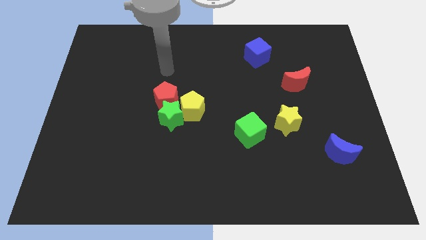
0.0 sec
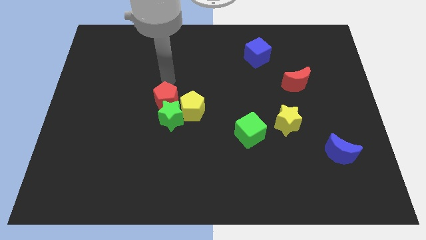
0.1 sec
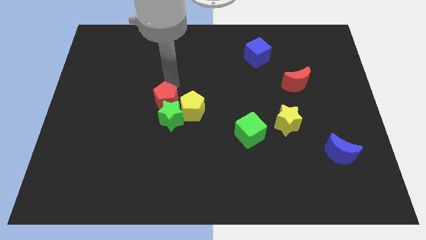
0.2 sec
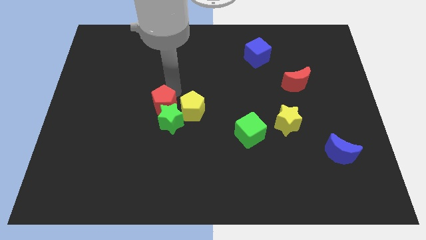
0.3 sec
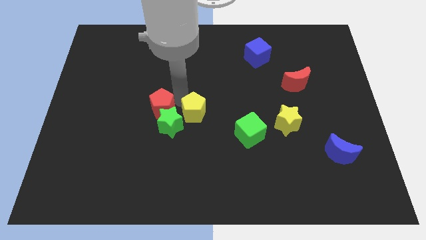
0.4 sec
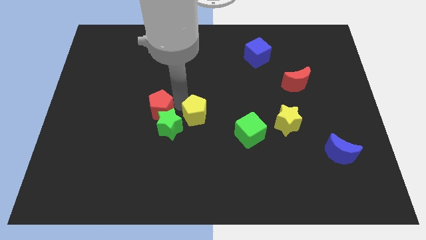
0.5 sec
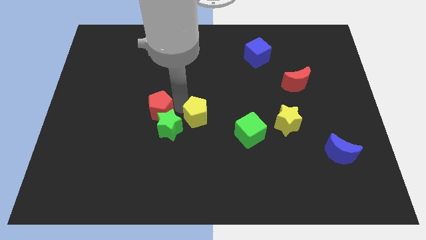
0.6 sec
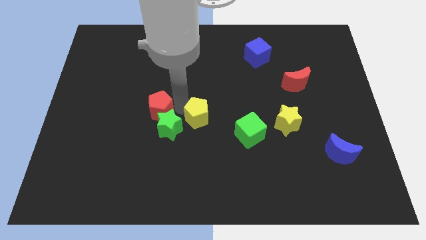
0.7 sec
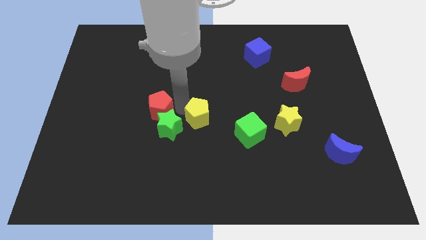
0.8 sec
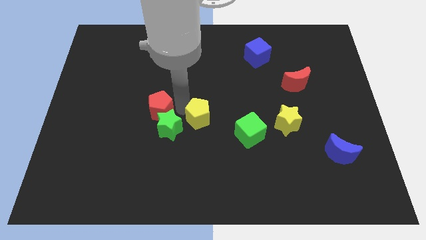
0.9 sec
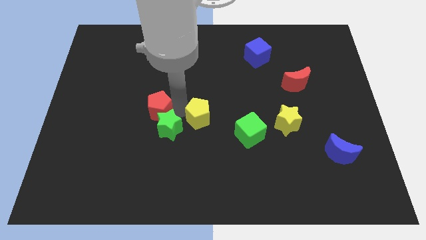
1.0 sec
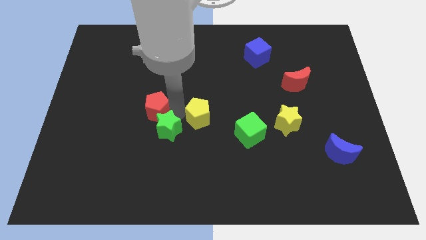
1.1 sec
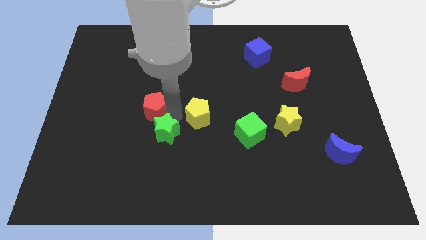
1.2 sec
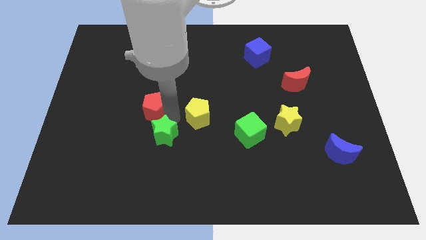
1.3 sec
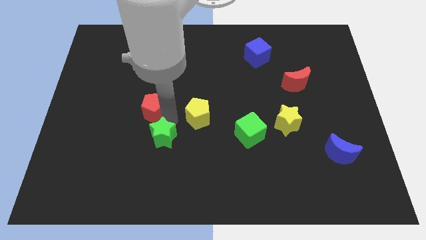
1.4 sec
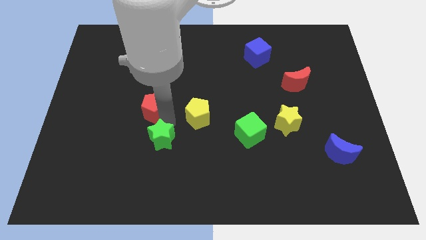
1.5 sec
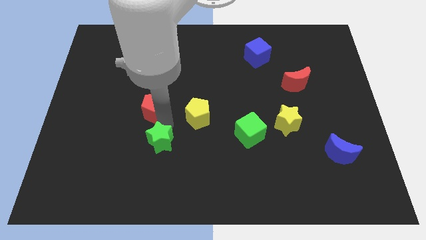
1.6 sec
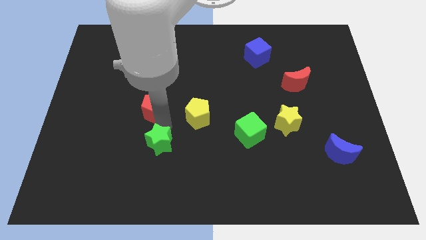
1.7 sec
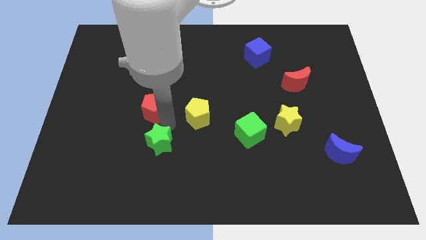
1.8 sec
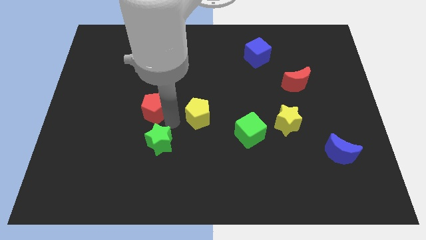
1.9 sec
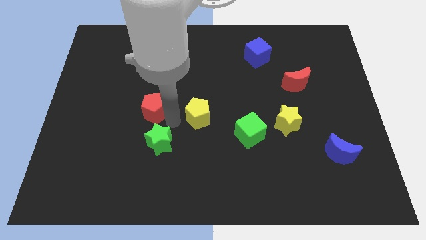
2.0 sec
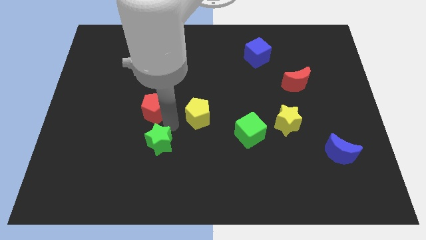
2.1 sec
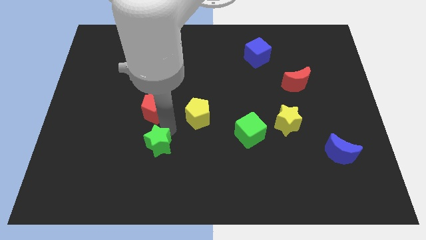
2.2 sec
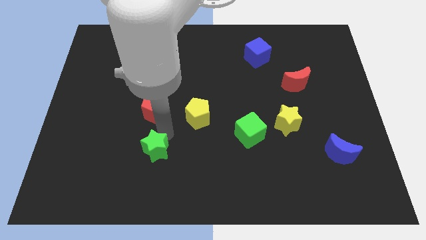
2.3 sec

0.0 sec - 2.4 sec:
separate the green star from the red pentagon and yellow pentagon

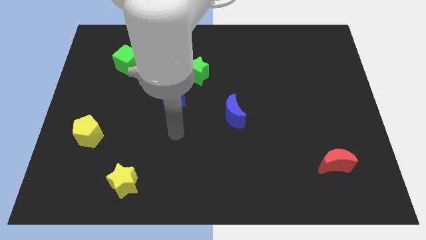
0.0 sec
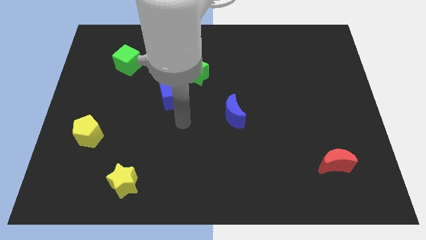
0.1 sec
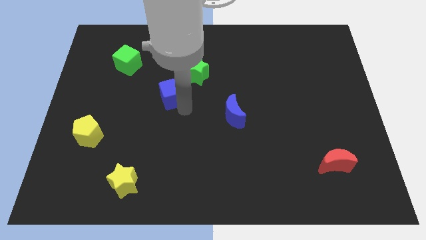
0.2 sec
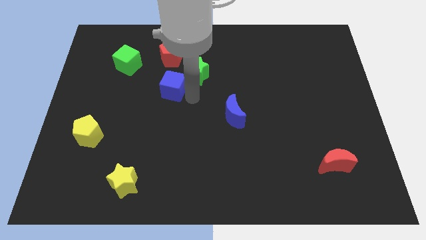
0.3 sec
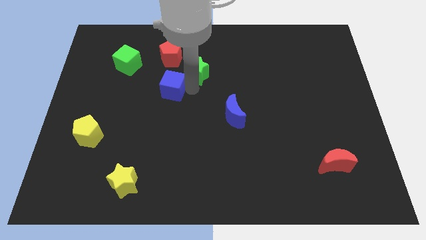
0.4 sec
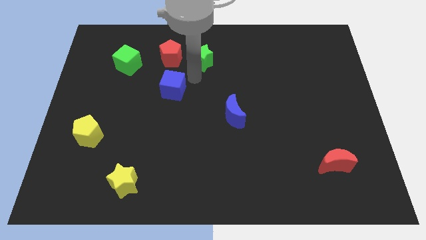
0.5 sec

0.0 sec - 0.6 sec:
pull the blue cube apart from the green star

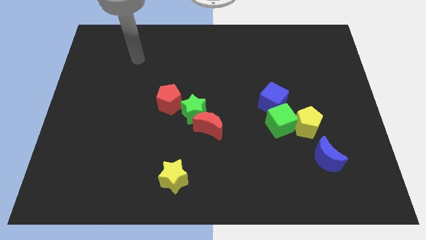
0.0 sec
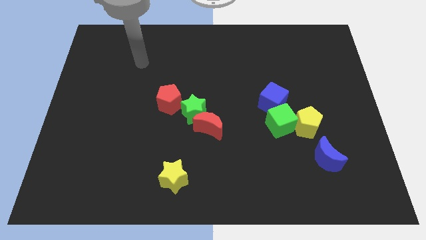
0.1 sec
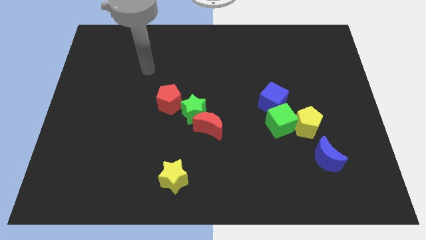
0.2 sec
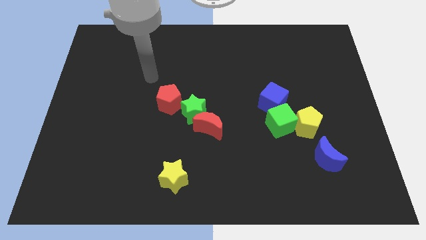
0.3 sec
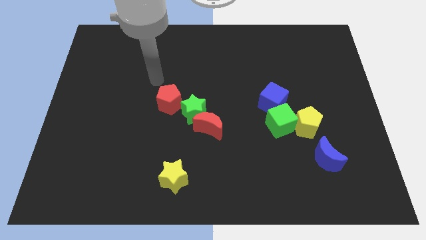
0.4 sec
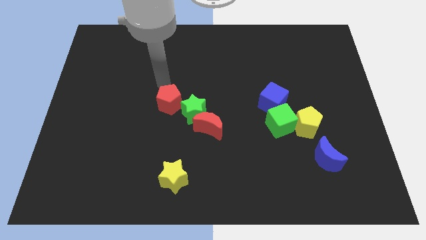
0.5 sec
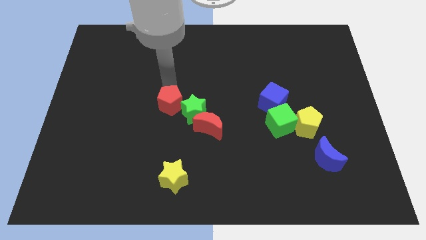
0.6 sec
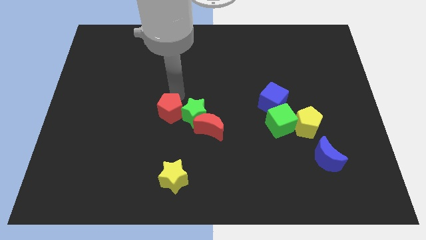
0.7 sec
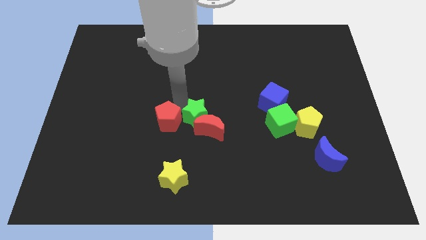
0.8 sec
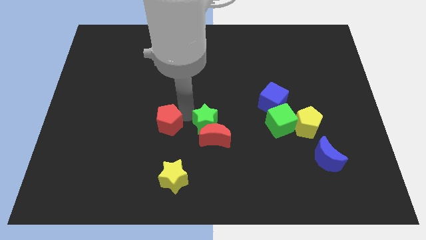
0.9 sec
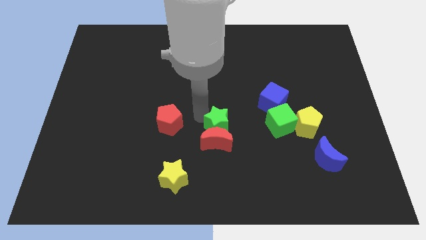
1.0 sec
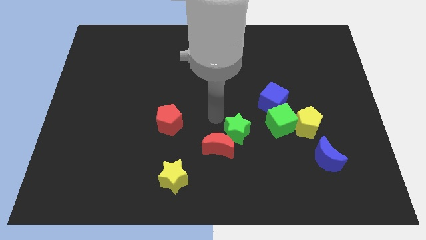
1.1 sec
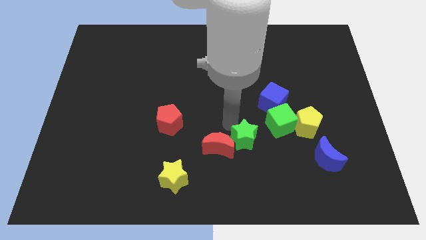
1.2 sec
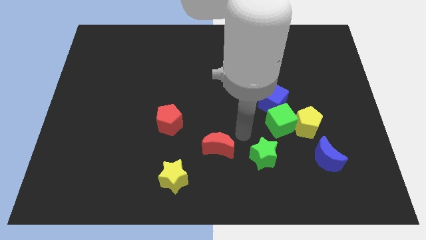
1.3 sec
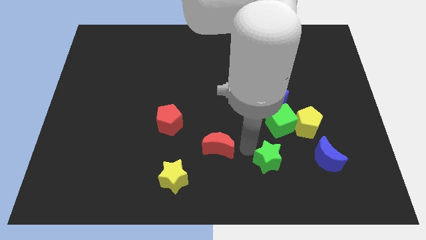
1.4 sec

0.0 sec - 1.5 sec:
separate the red moon from the green star

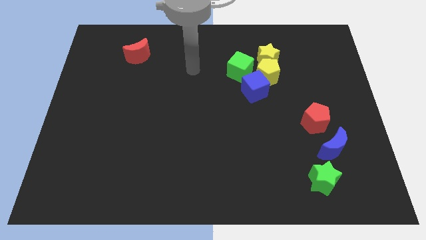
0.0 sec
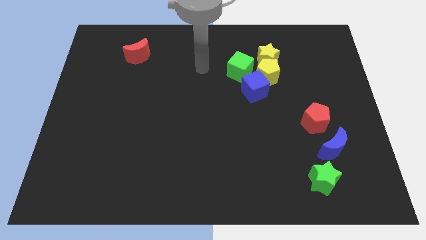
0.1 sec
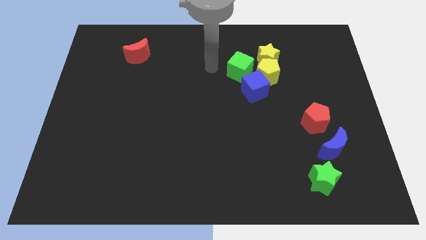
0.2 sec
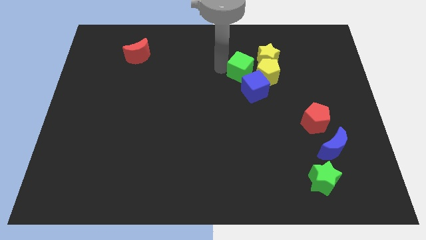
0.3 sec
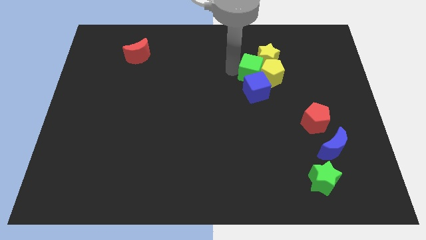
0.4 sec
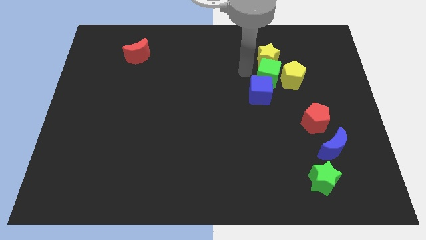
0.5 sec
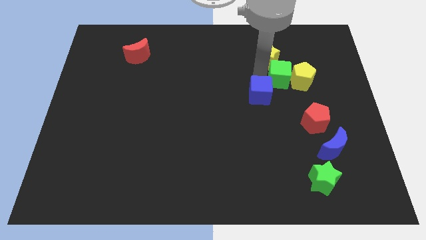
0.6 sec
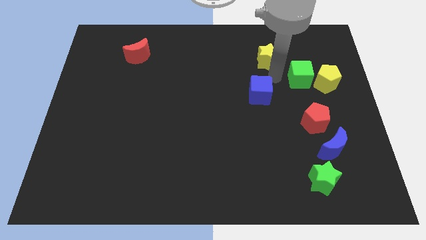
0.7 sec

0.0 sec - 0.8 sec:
separate the yellow pentagon from the group

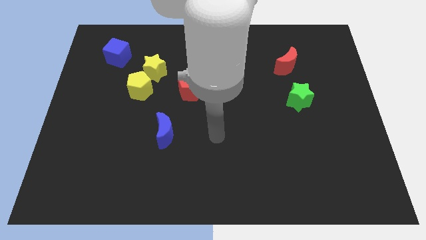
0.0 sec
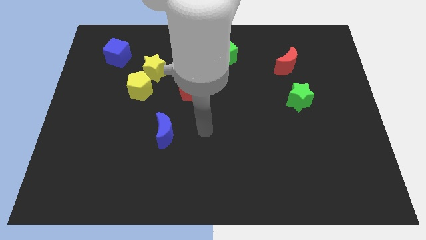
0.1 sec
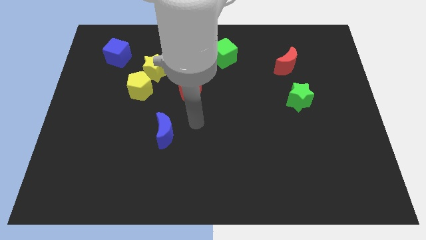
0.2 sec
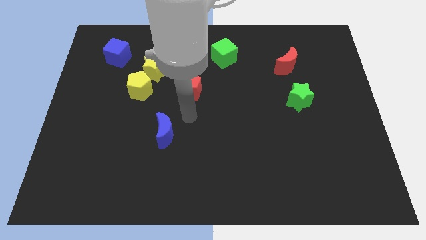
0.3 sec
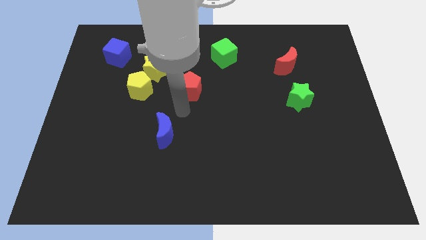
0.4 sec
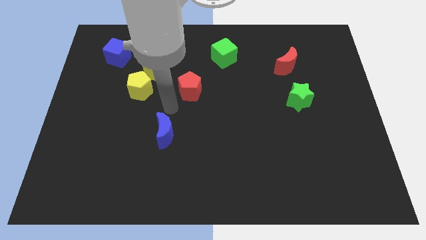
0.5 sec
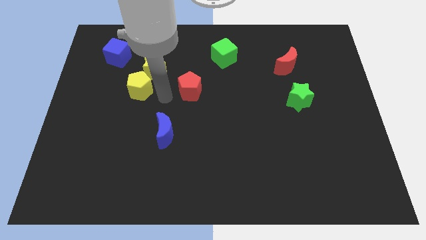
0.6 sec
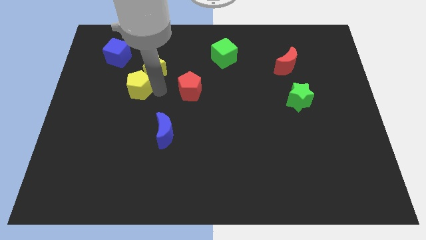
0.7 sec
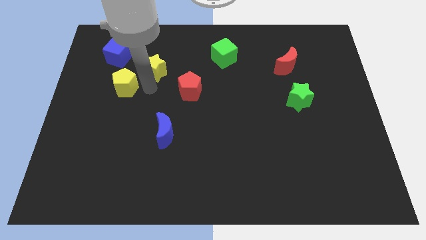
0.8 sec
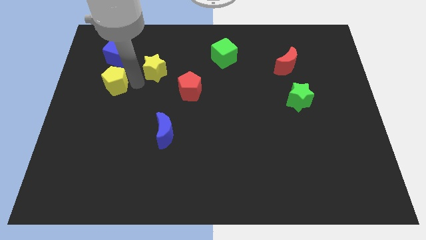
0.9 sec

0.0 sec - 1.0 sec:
pull the yellow star apart from the yellow pentagon

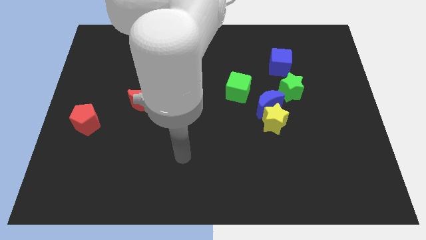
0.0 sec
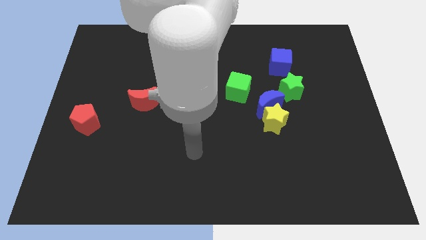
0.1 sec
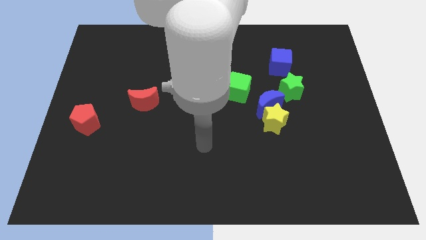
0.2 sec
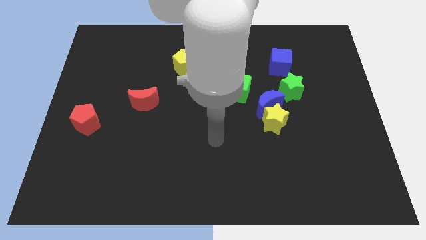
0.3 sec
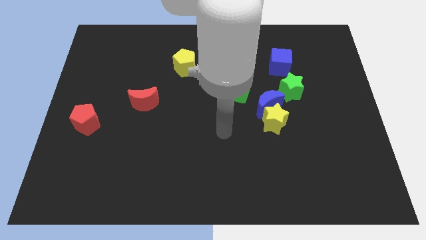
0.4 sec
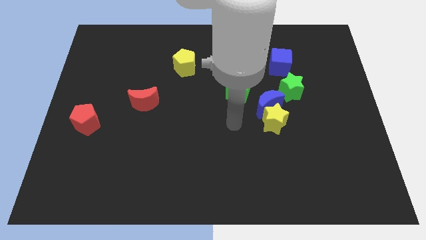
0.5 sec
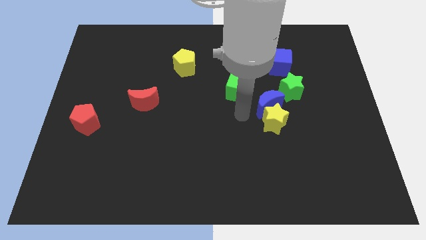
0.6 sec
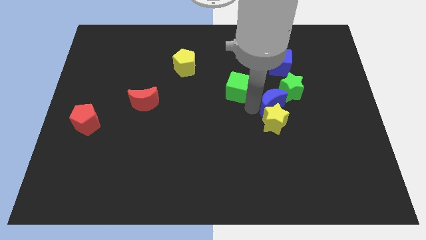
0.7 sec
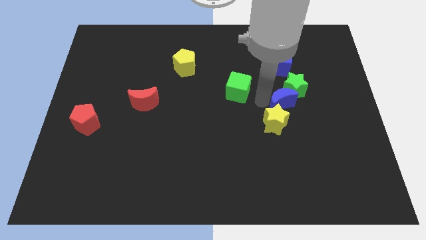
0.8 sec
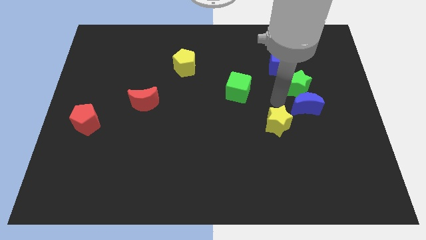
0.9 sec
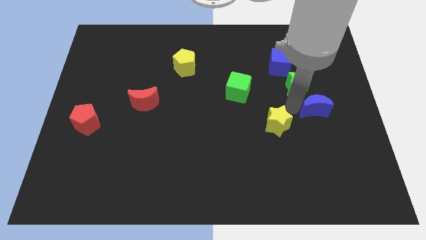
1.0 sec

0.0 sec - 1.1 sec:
move the yellow star away from the blue moon

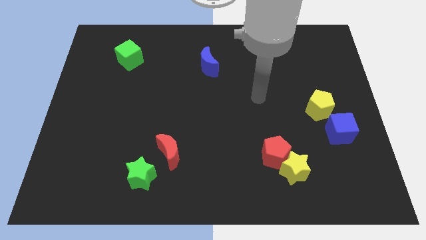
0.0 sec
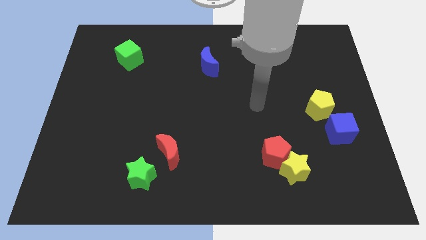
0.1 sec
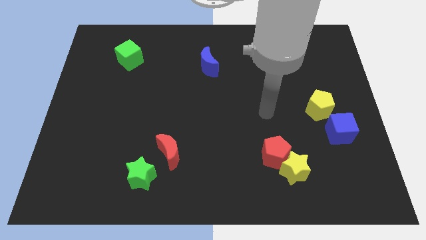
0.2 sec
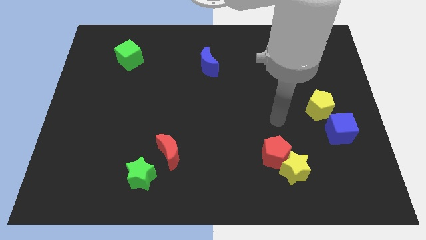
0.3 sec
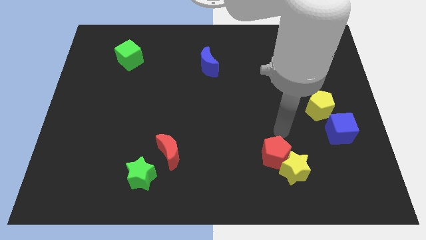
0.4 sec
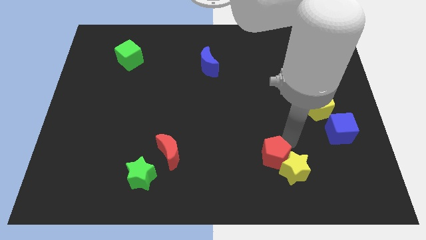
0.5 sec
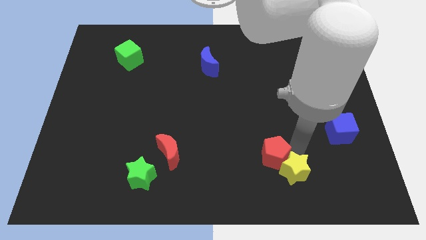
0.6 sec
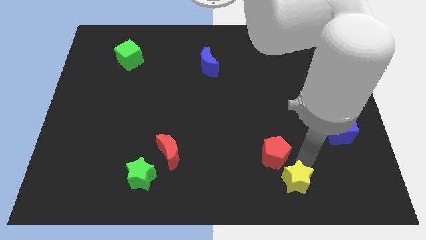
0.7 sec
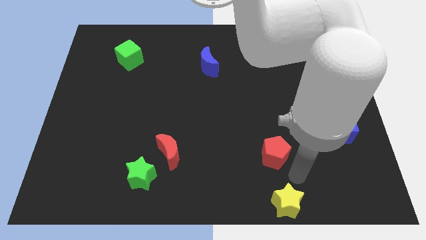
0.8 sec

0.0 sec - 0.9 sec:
pull the red pentagon apart from the yellow star

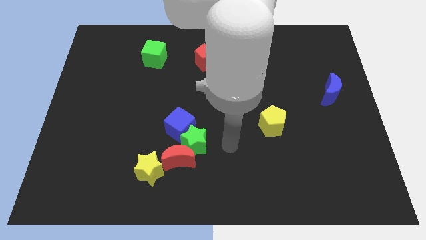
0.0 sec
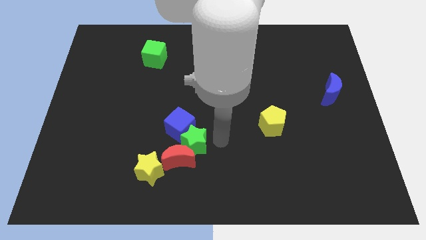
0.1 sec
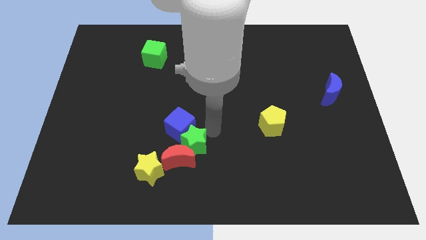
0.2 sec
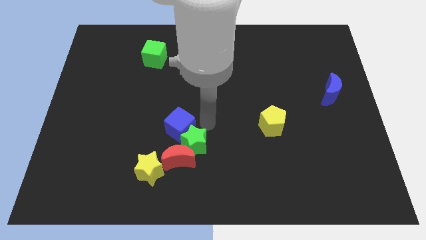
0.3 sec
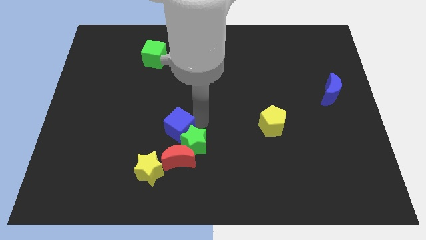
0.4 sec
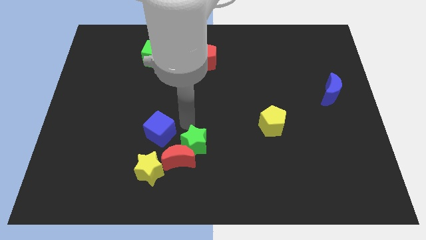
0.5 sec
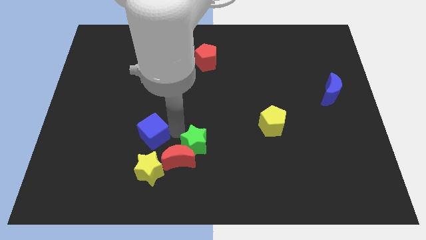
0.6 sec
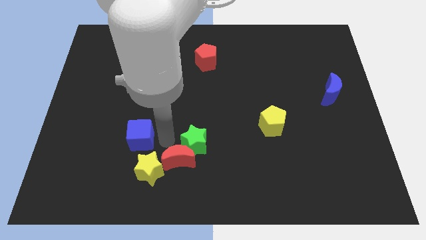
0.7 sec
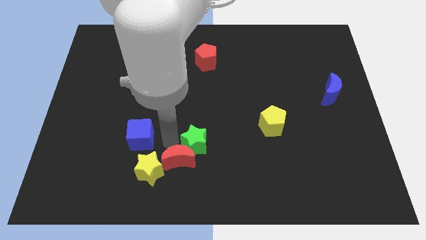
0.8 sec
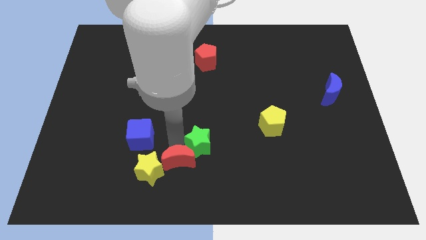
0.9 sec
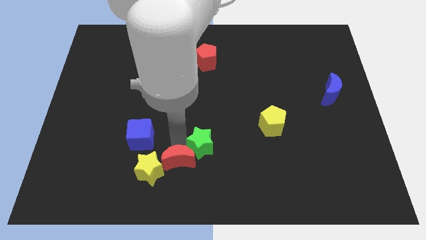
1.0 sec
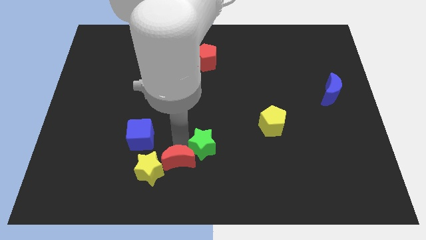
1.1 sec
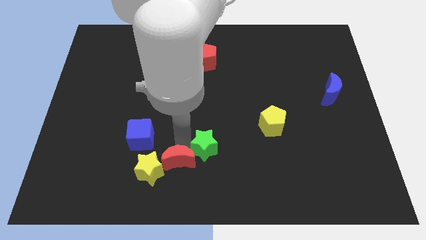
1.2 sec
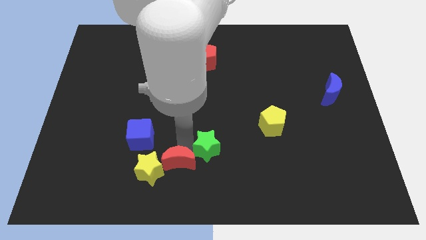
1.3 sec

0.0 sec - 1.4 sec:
move the green star away from the red moon and blue cube
